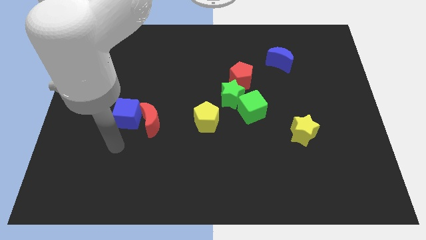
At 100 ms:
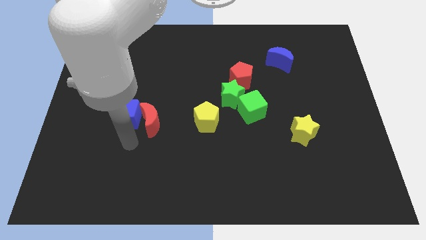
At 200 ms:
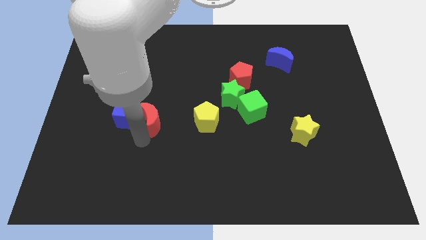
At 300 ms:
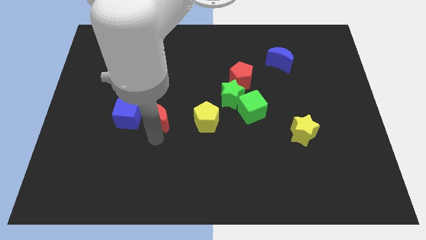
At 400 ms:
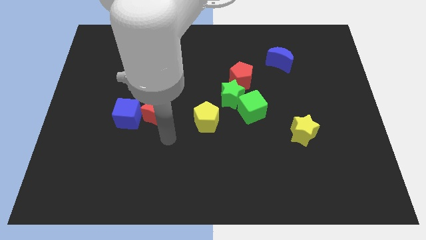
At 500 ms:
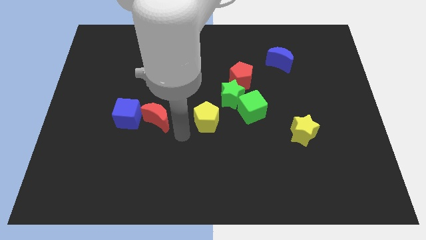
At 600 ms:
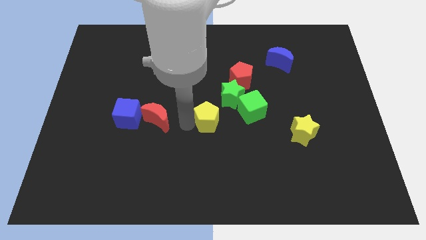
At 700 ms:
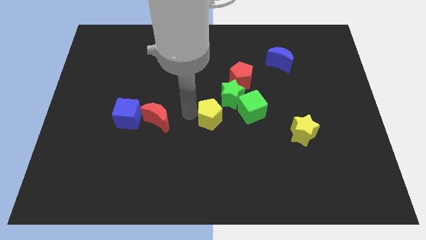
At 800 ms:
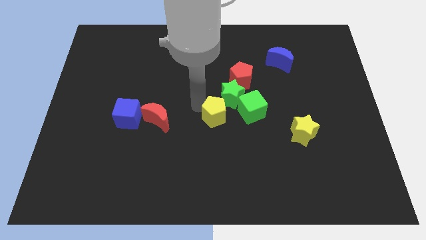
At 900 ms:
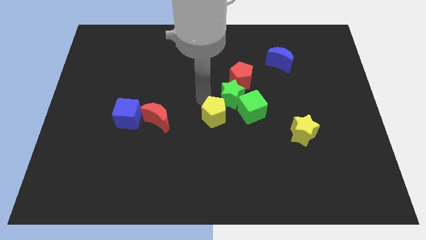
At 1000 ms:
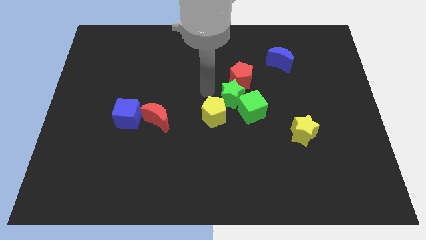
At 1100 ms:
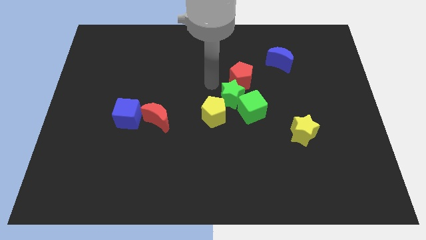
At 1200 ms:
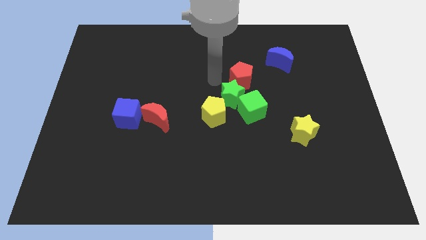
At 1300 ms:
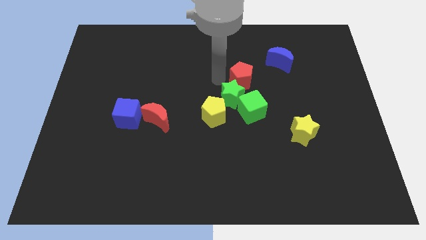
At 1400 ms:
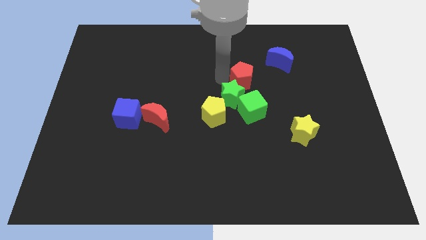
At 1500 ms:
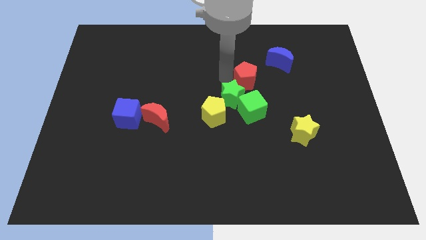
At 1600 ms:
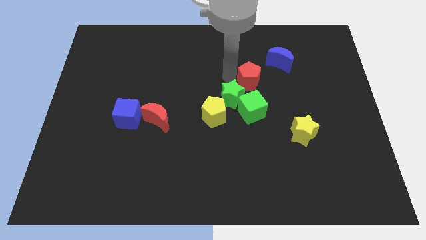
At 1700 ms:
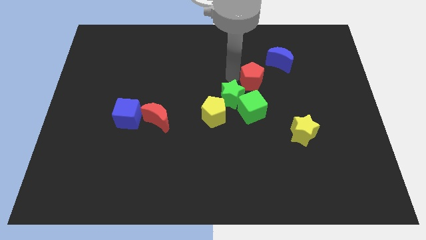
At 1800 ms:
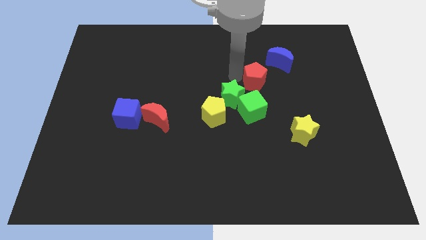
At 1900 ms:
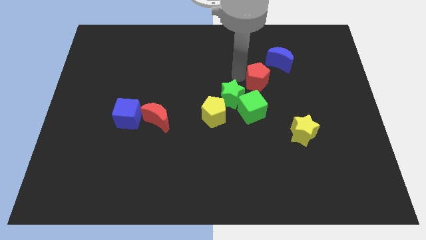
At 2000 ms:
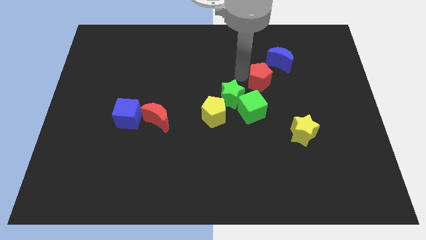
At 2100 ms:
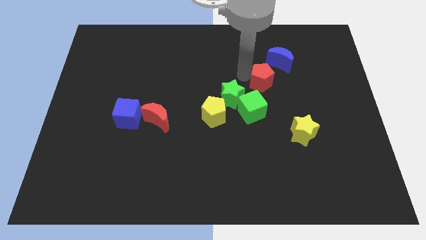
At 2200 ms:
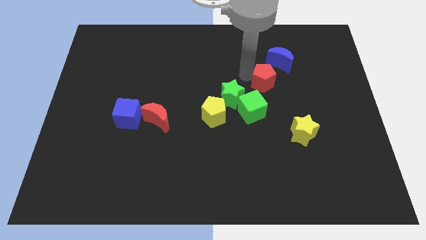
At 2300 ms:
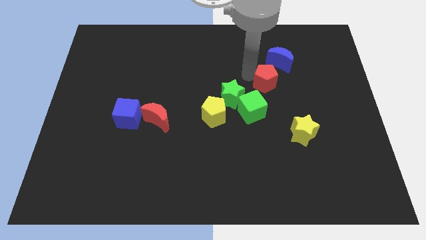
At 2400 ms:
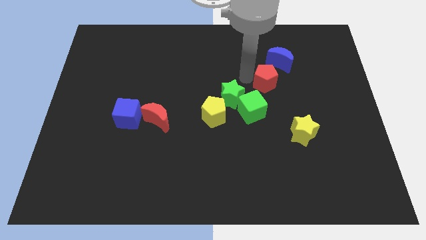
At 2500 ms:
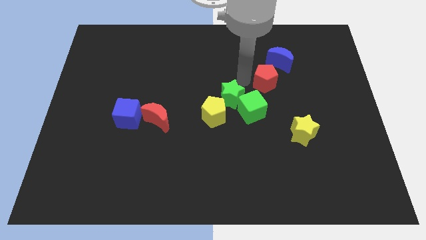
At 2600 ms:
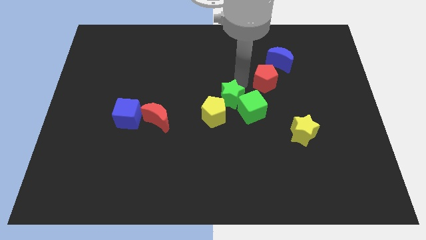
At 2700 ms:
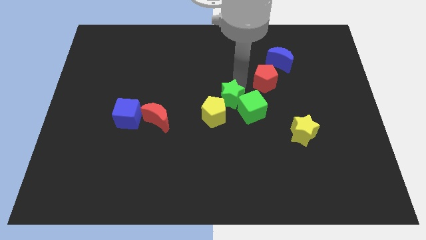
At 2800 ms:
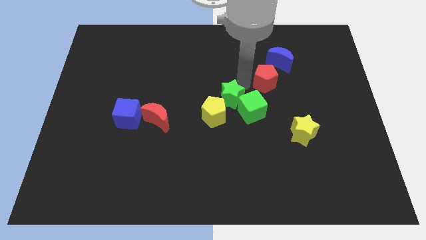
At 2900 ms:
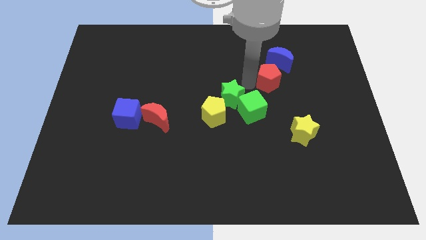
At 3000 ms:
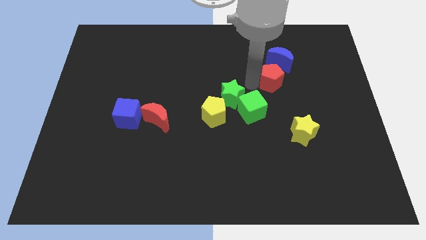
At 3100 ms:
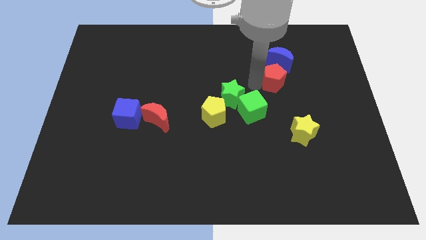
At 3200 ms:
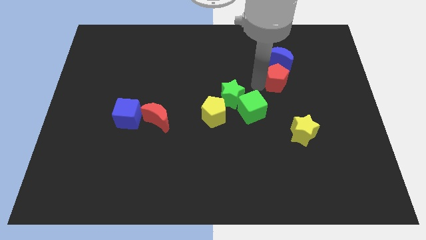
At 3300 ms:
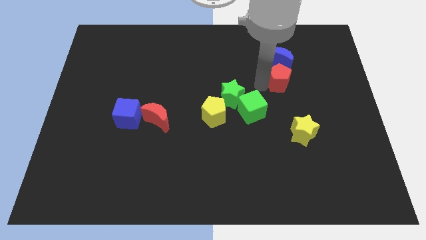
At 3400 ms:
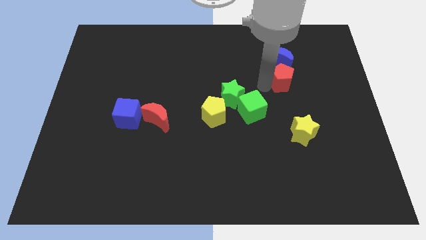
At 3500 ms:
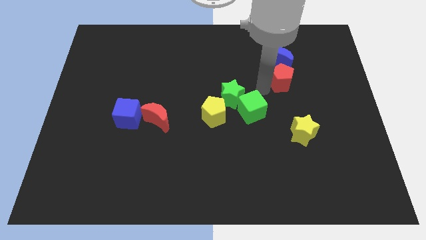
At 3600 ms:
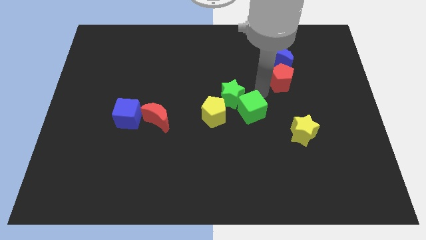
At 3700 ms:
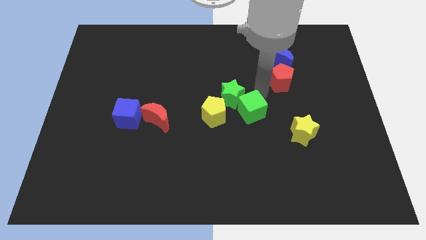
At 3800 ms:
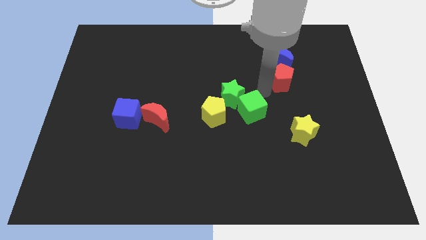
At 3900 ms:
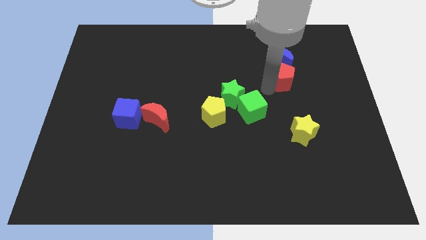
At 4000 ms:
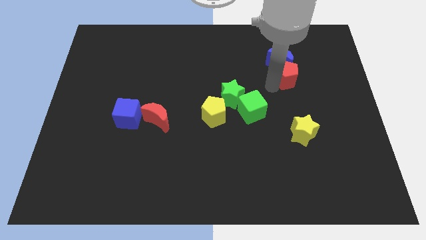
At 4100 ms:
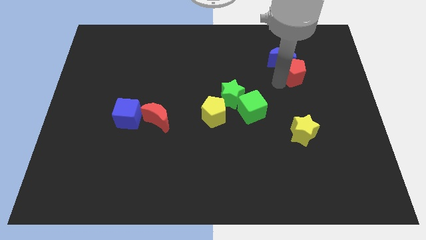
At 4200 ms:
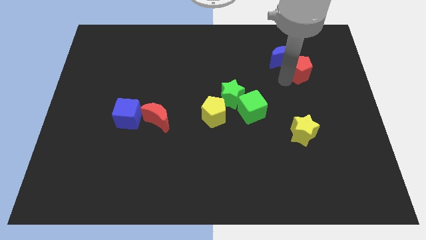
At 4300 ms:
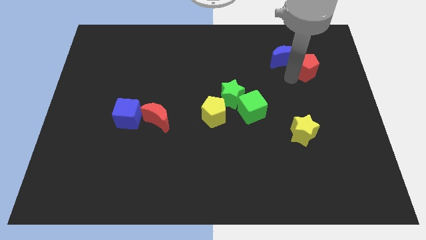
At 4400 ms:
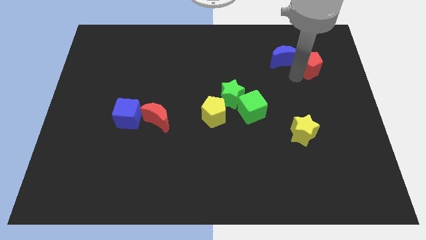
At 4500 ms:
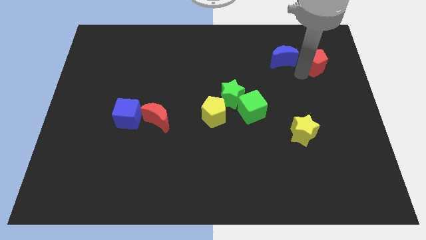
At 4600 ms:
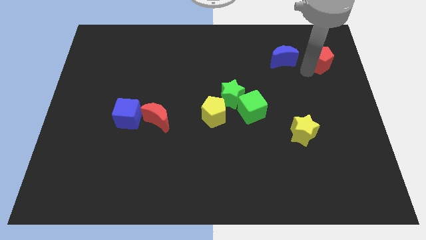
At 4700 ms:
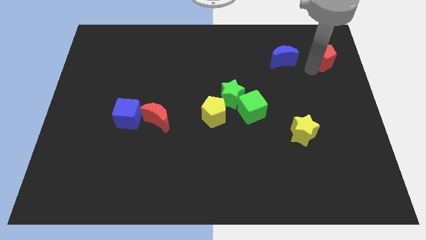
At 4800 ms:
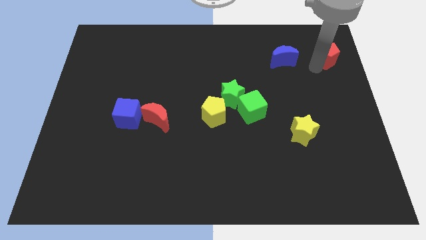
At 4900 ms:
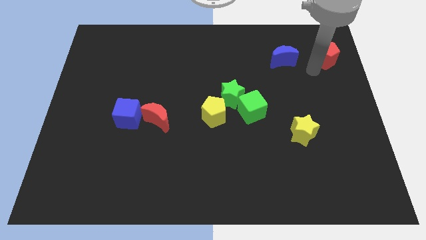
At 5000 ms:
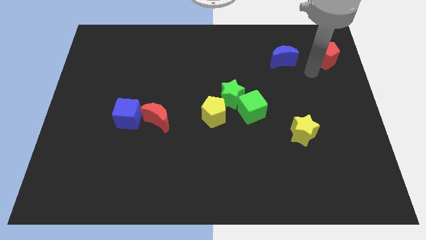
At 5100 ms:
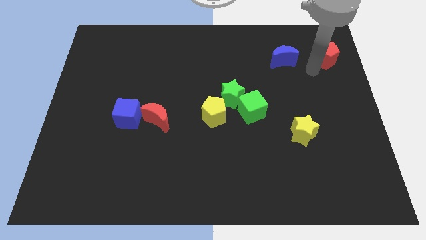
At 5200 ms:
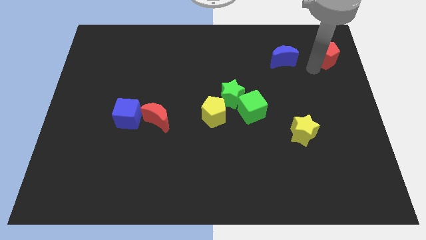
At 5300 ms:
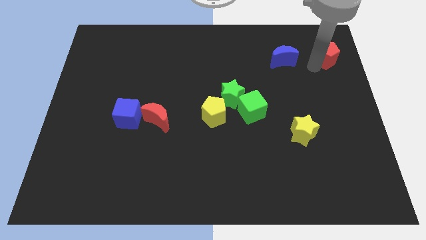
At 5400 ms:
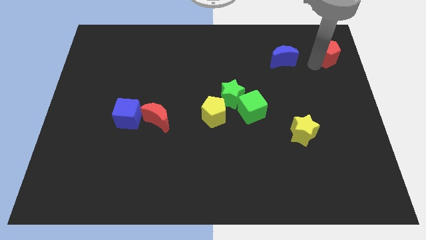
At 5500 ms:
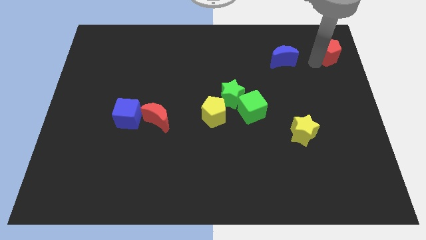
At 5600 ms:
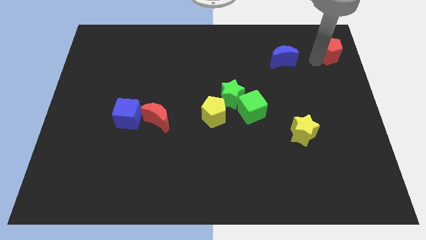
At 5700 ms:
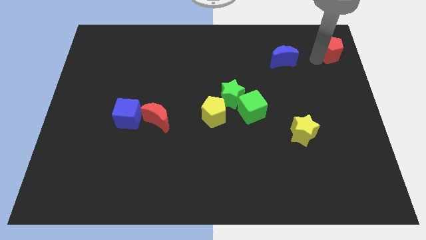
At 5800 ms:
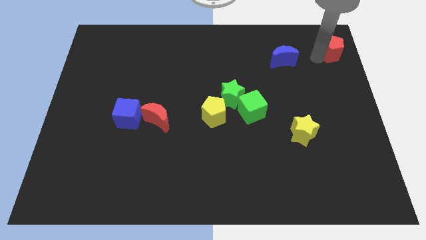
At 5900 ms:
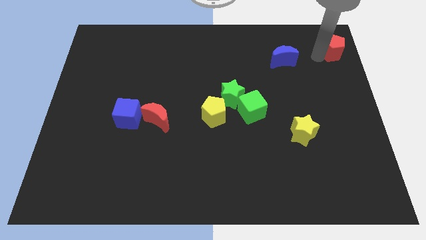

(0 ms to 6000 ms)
put the red pentagon to the top right of the board

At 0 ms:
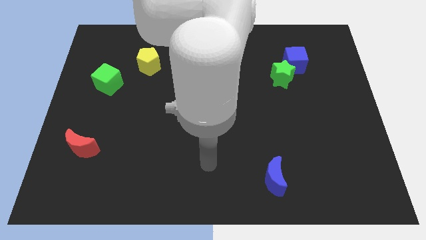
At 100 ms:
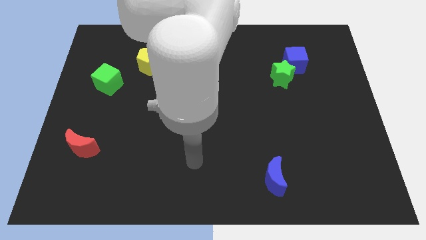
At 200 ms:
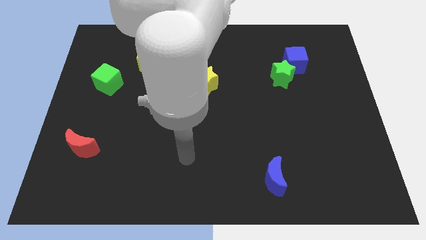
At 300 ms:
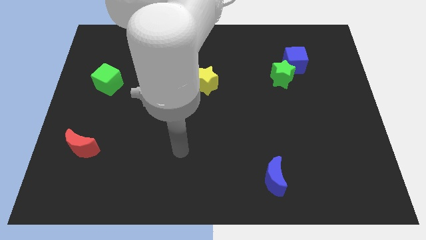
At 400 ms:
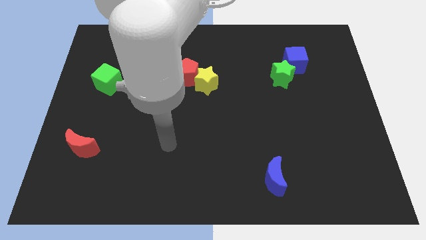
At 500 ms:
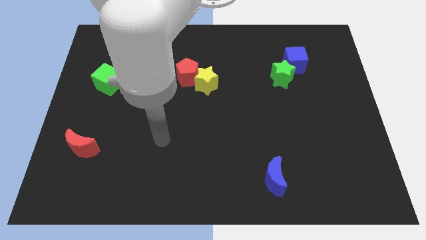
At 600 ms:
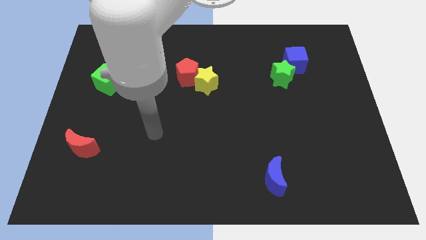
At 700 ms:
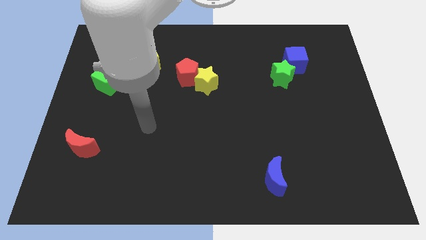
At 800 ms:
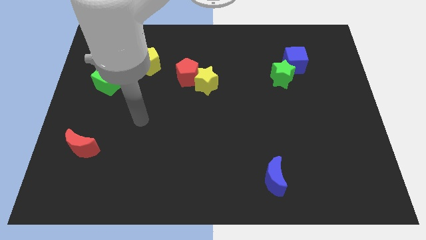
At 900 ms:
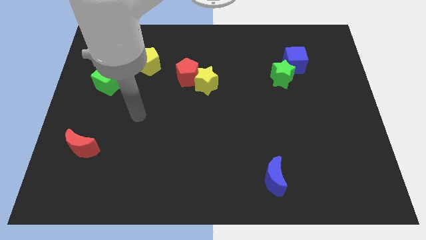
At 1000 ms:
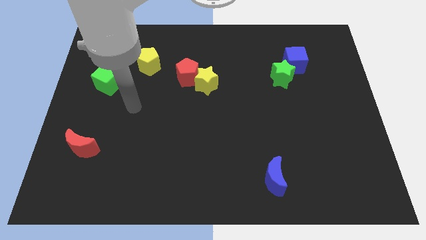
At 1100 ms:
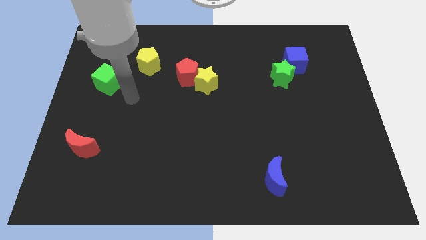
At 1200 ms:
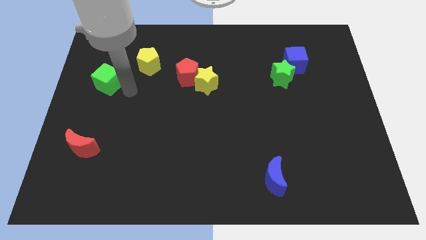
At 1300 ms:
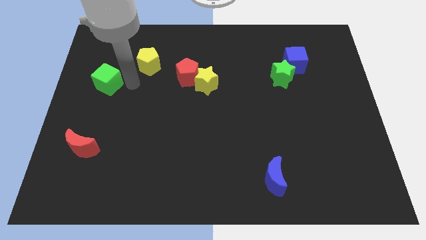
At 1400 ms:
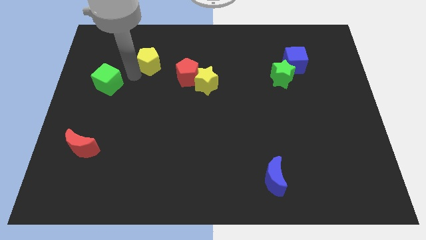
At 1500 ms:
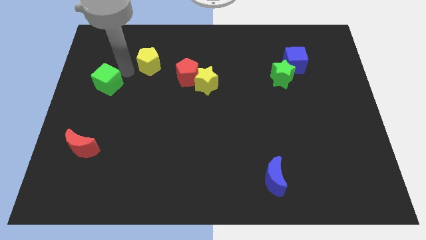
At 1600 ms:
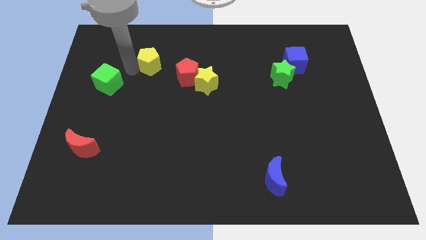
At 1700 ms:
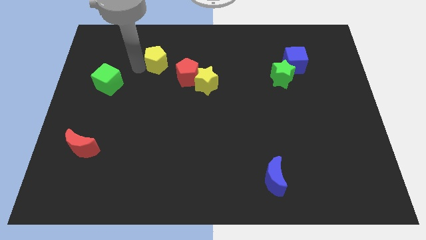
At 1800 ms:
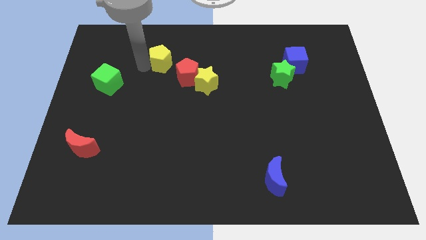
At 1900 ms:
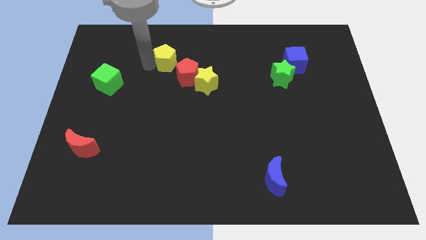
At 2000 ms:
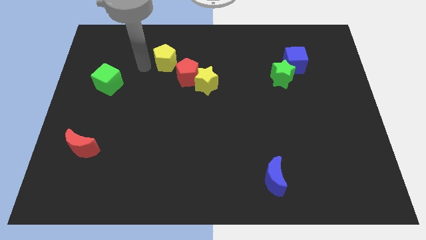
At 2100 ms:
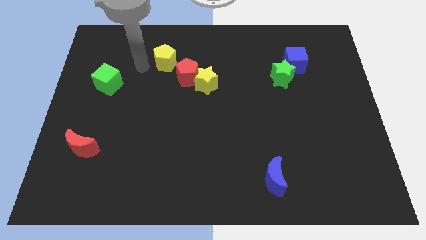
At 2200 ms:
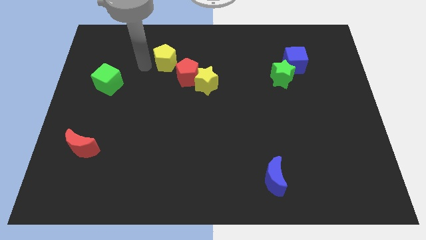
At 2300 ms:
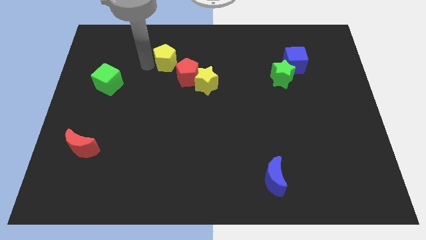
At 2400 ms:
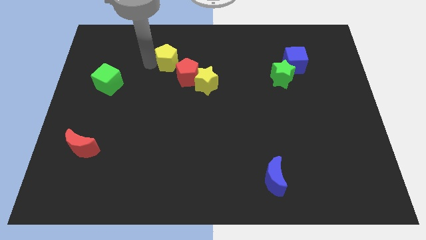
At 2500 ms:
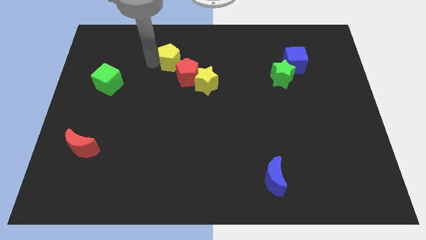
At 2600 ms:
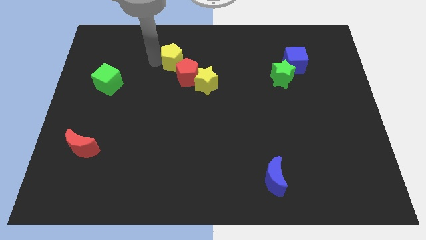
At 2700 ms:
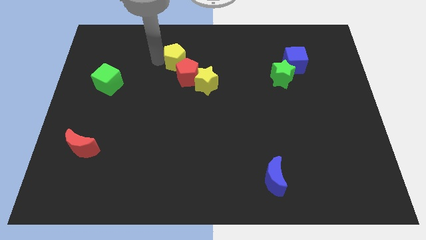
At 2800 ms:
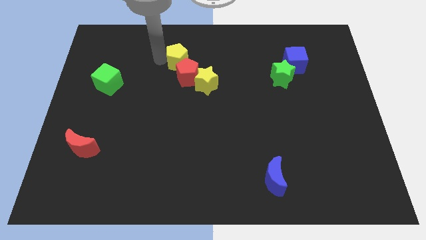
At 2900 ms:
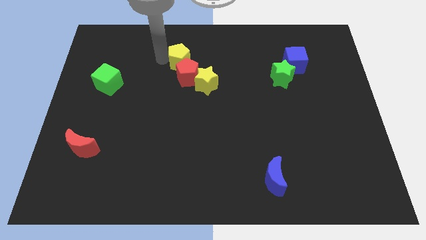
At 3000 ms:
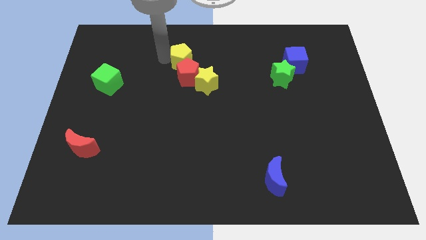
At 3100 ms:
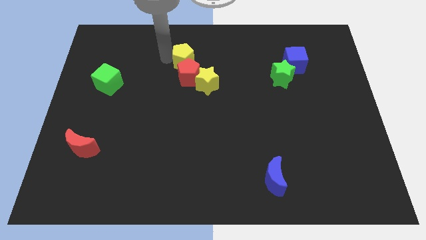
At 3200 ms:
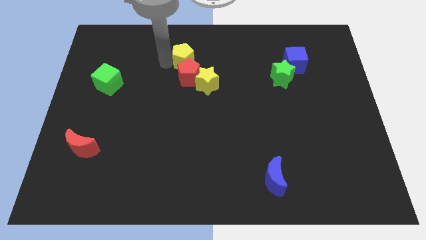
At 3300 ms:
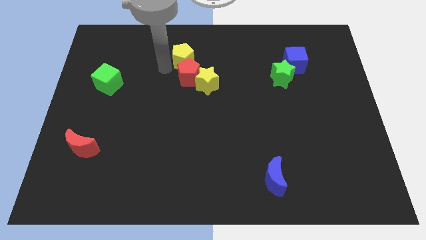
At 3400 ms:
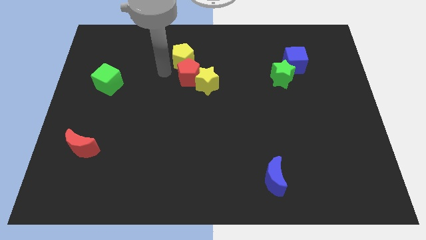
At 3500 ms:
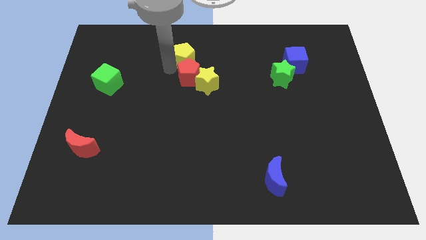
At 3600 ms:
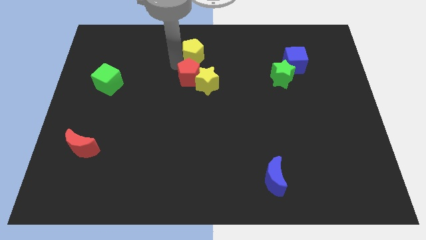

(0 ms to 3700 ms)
put the yellow pentagon to the towards your base
